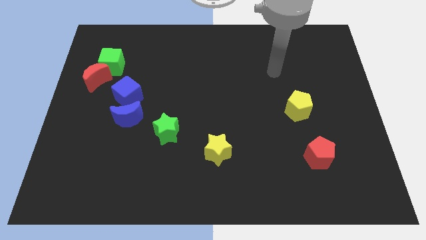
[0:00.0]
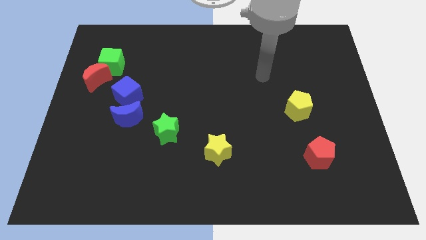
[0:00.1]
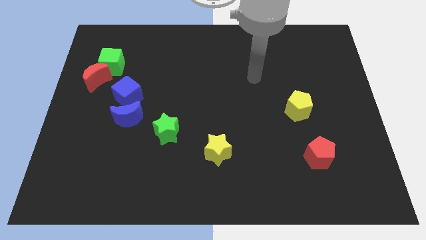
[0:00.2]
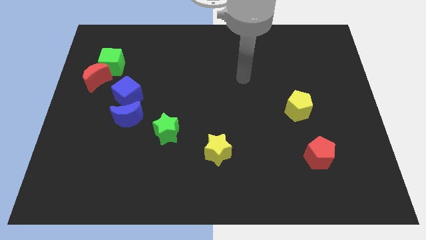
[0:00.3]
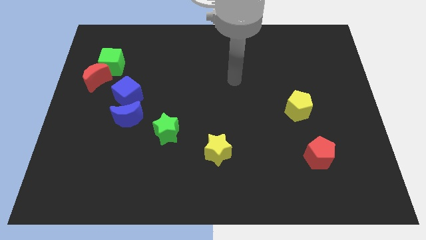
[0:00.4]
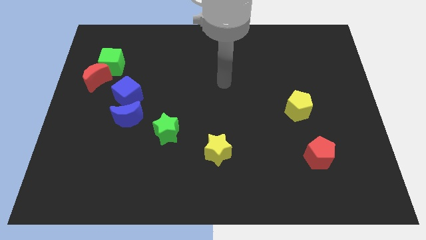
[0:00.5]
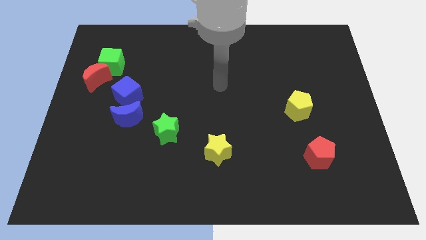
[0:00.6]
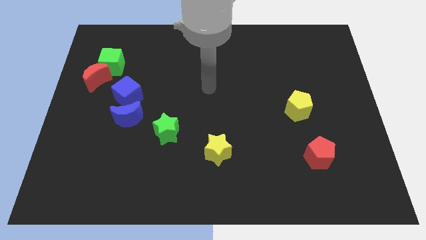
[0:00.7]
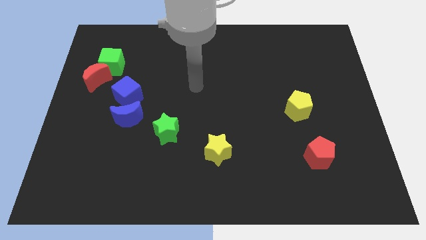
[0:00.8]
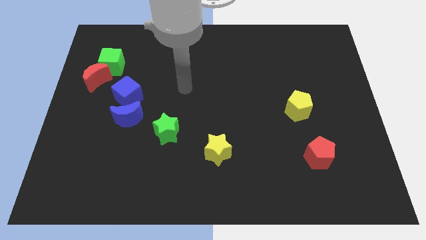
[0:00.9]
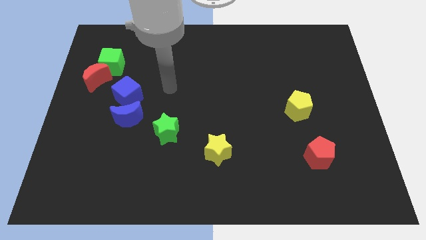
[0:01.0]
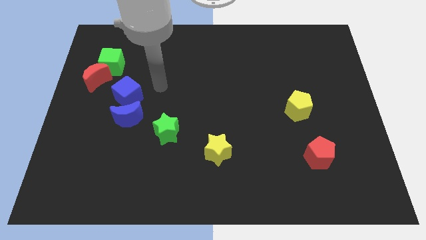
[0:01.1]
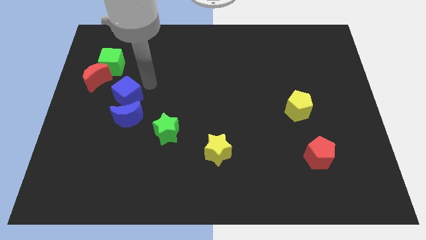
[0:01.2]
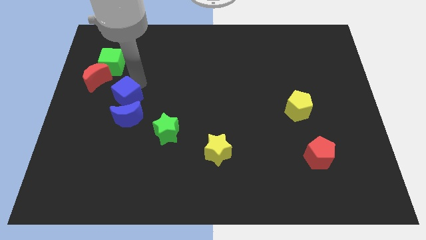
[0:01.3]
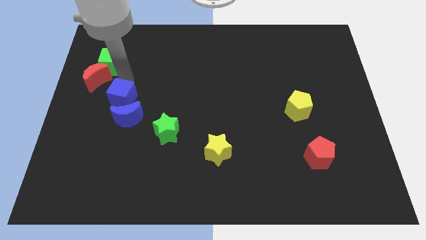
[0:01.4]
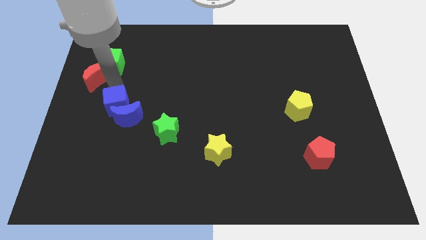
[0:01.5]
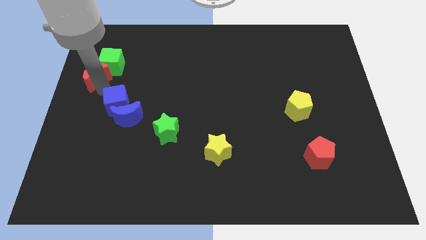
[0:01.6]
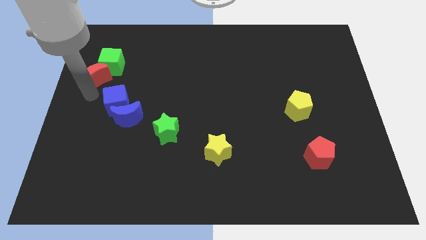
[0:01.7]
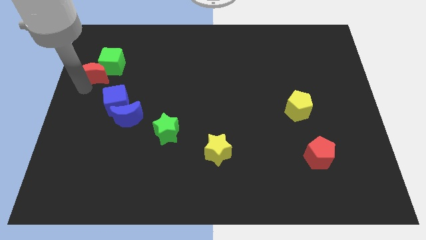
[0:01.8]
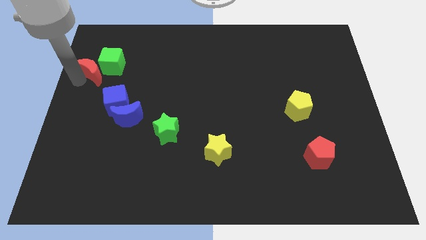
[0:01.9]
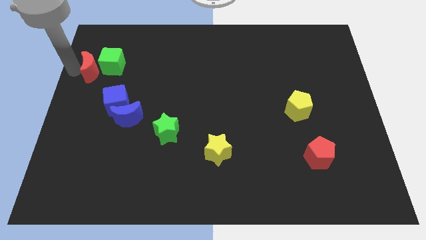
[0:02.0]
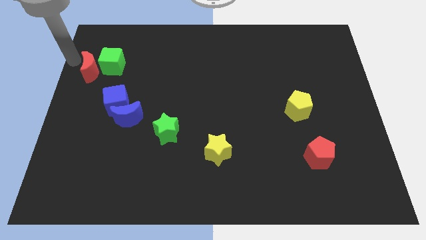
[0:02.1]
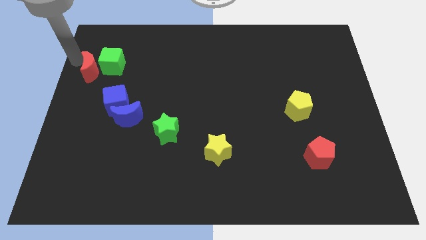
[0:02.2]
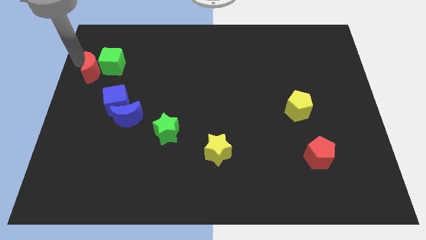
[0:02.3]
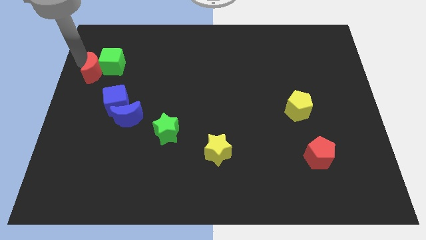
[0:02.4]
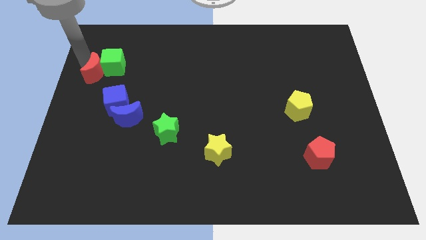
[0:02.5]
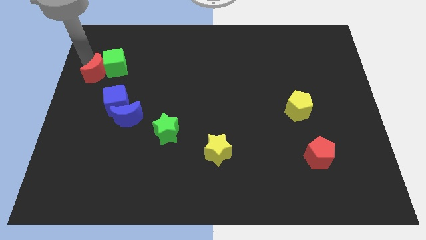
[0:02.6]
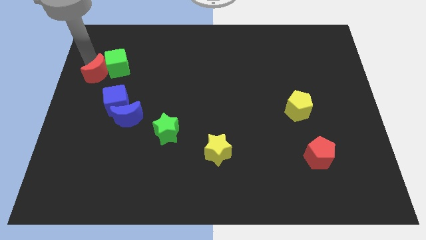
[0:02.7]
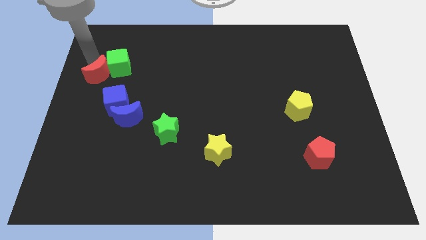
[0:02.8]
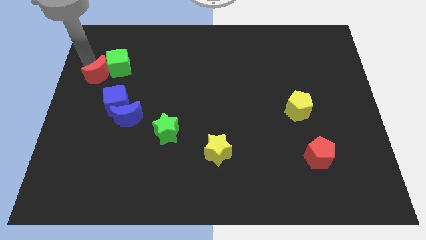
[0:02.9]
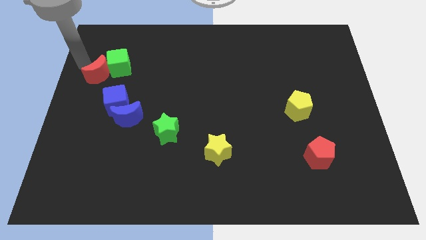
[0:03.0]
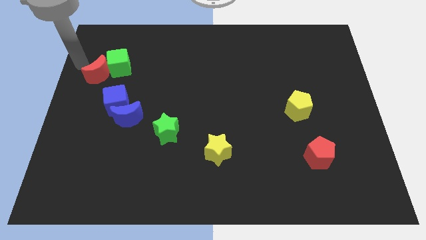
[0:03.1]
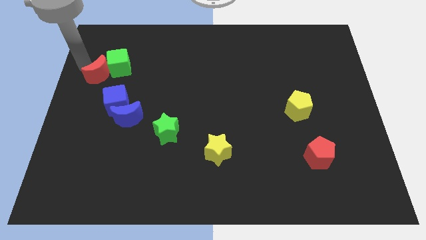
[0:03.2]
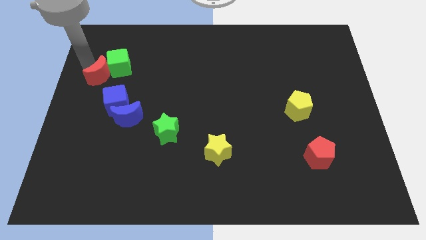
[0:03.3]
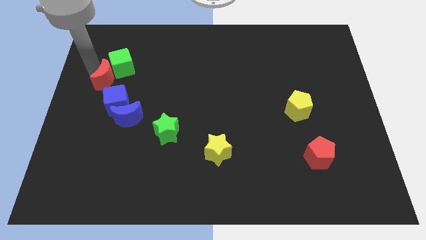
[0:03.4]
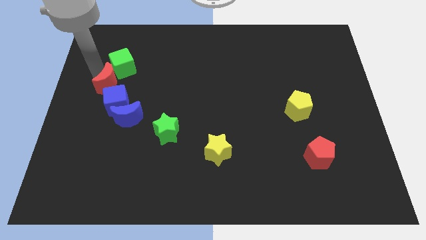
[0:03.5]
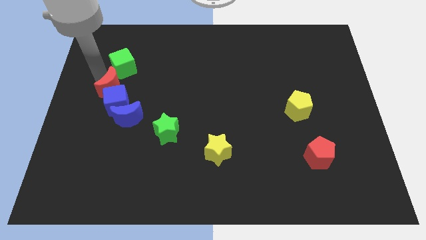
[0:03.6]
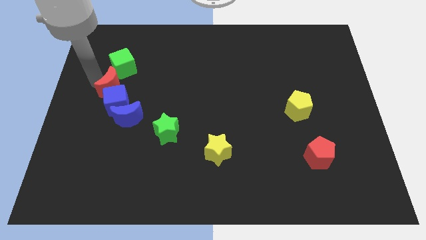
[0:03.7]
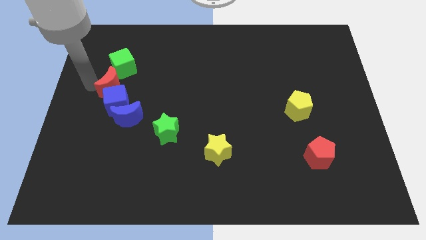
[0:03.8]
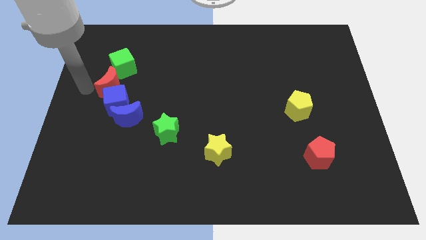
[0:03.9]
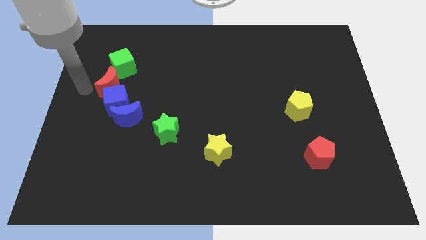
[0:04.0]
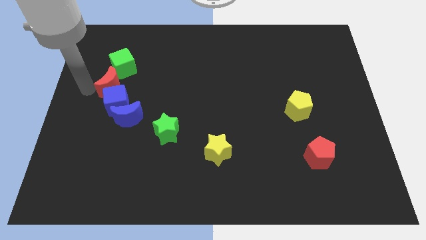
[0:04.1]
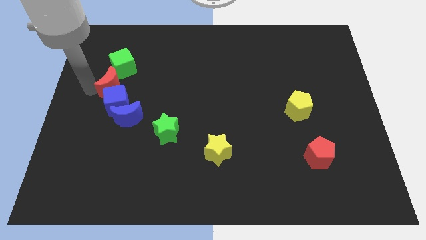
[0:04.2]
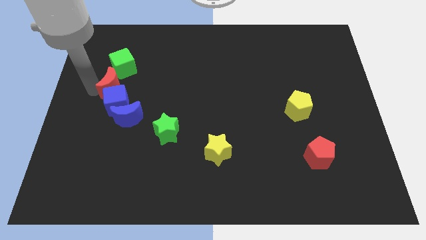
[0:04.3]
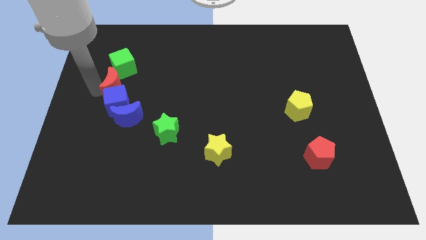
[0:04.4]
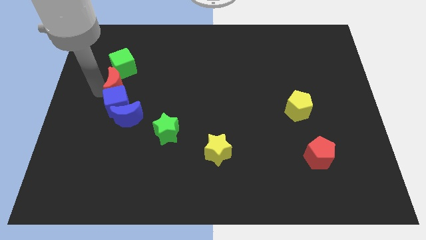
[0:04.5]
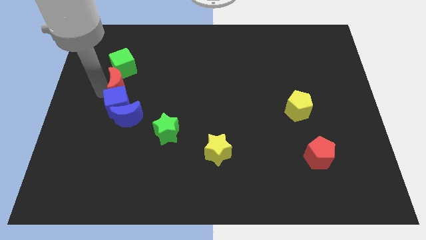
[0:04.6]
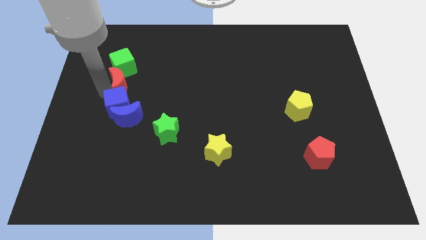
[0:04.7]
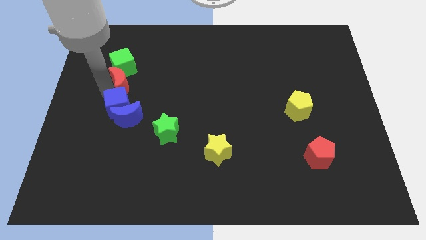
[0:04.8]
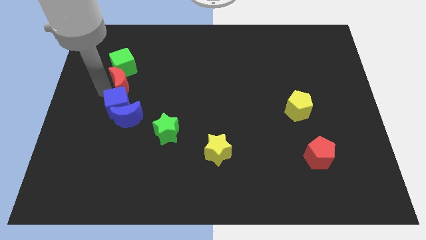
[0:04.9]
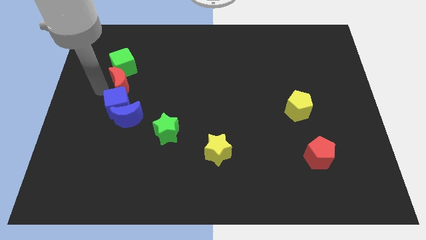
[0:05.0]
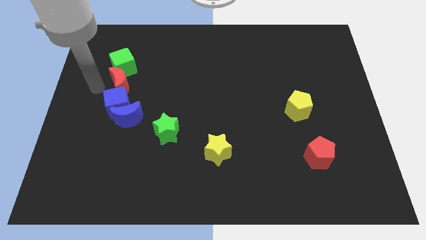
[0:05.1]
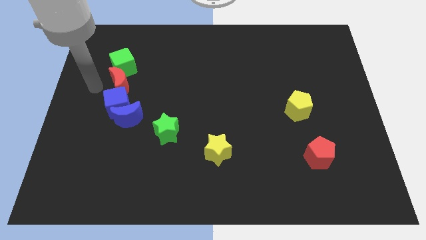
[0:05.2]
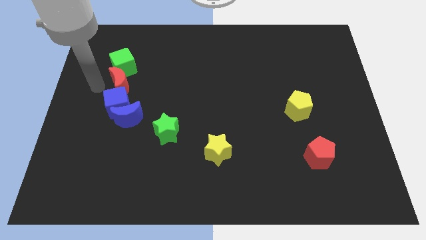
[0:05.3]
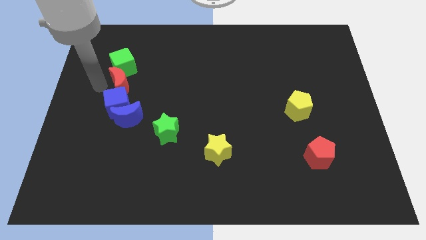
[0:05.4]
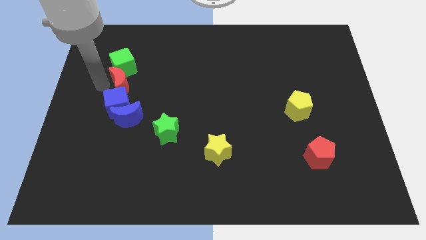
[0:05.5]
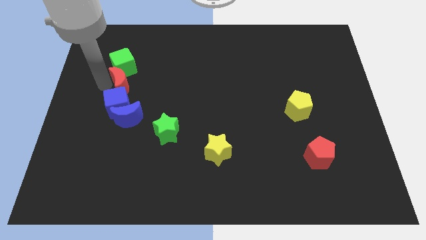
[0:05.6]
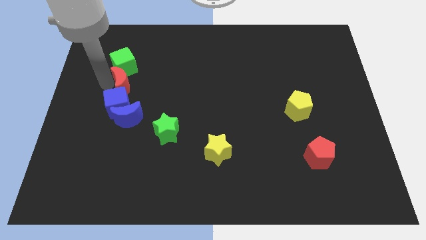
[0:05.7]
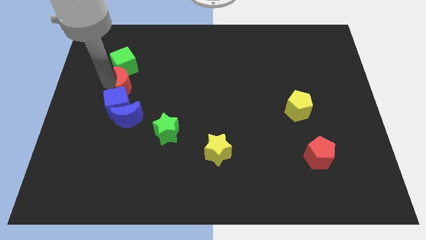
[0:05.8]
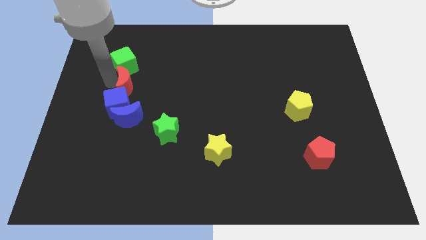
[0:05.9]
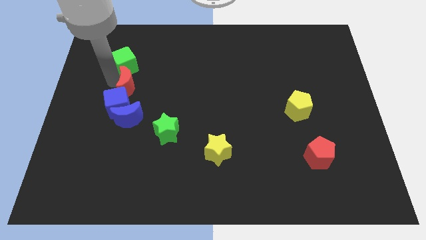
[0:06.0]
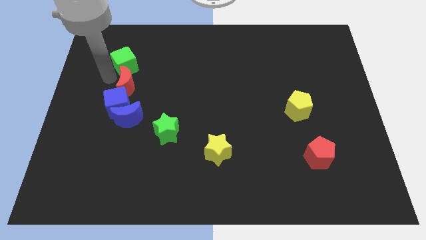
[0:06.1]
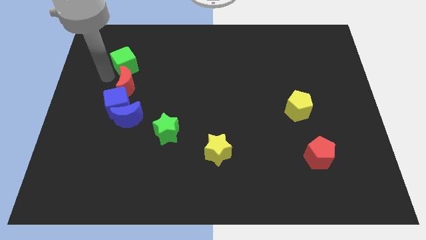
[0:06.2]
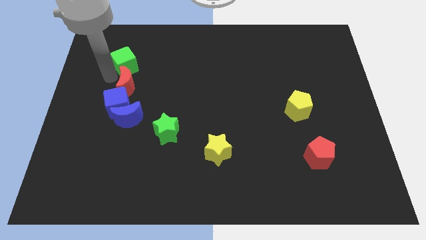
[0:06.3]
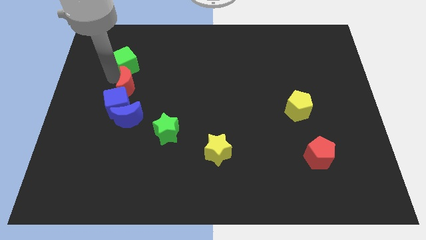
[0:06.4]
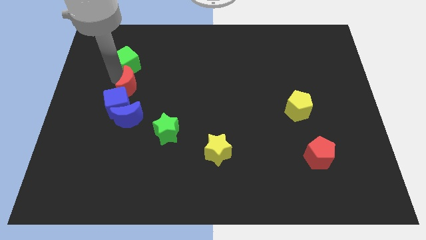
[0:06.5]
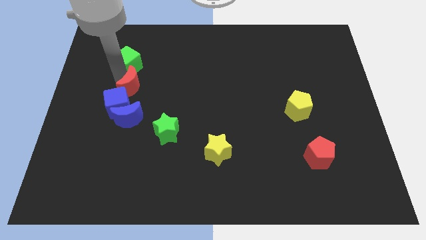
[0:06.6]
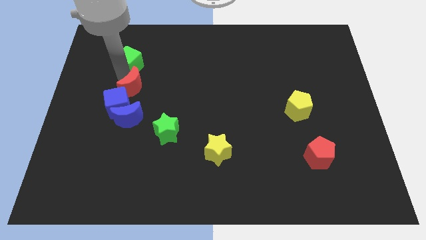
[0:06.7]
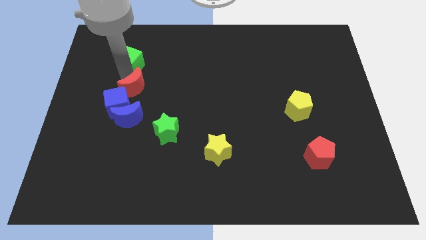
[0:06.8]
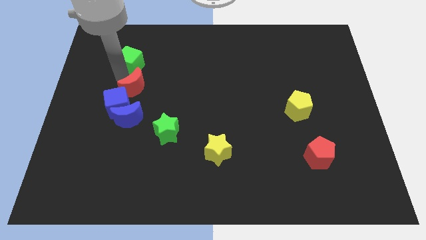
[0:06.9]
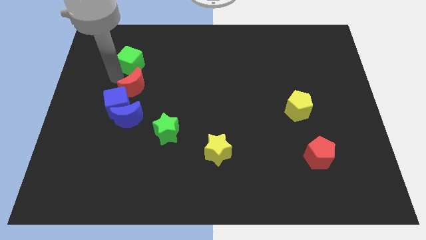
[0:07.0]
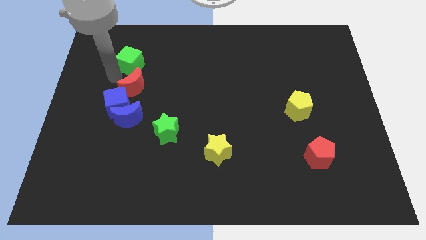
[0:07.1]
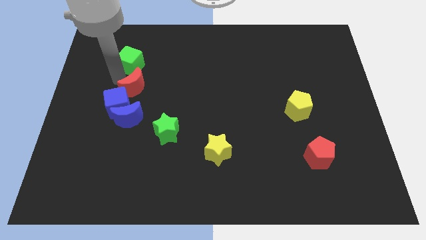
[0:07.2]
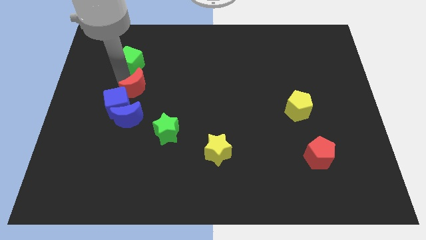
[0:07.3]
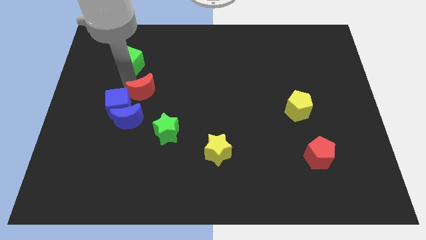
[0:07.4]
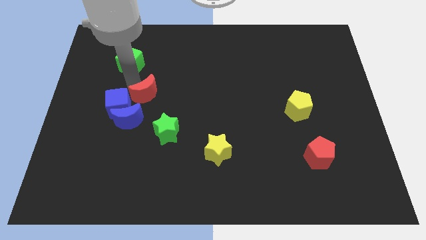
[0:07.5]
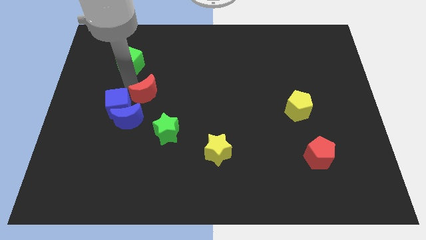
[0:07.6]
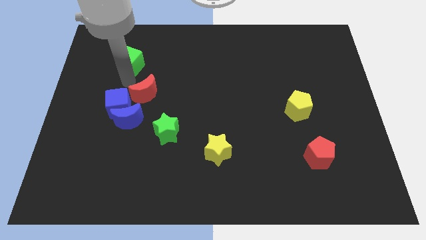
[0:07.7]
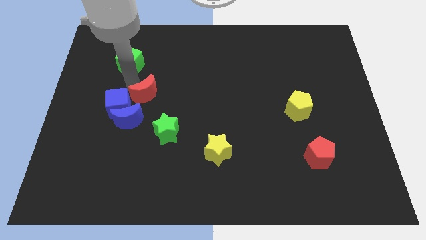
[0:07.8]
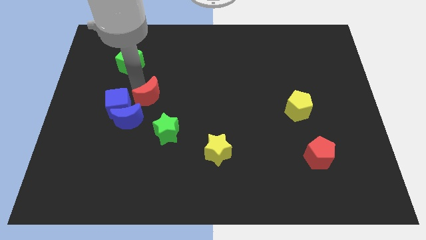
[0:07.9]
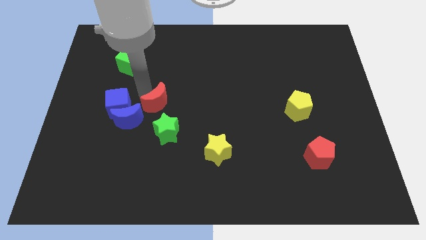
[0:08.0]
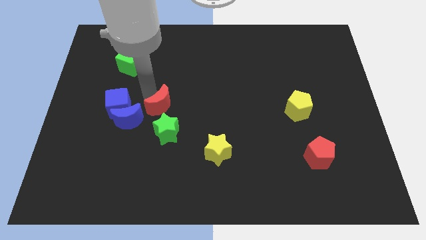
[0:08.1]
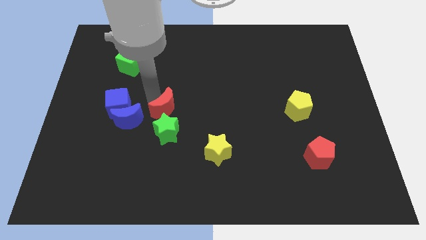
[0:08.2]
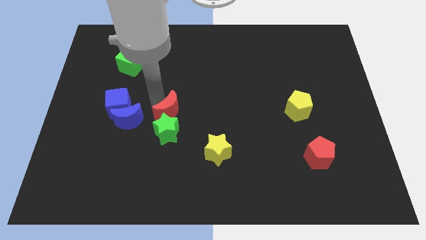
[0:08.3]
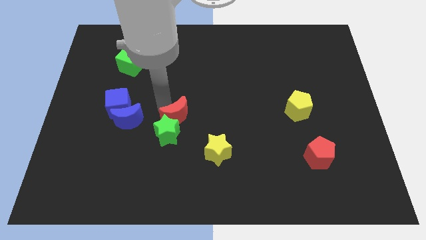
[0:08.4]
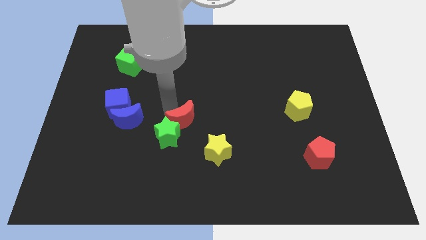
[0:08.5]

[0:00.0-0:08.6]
push the red moon diagonally up and to the left of the yellow star
